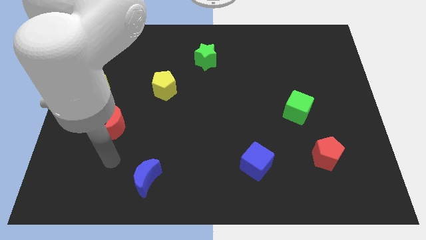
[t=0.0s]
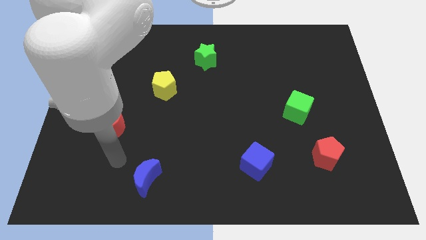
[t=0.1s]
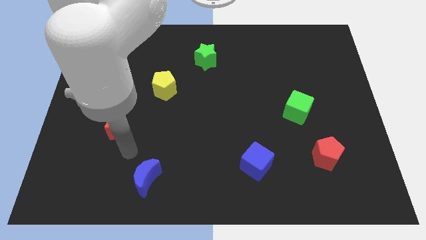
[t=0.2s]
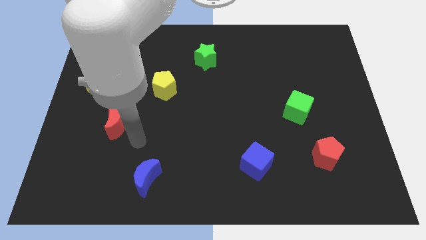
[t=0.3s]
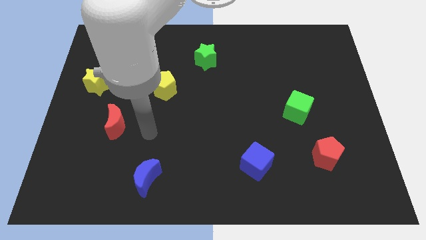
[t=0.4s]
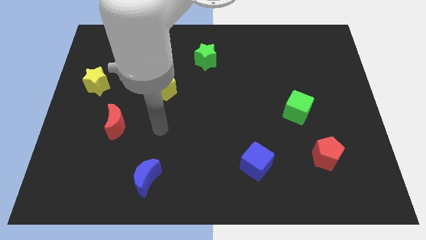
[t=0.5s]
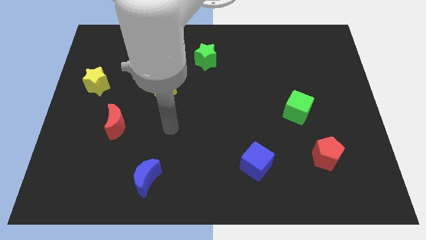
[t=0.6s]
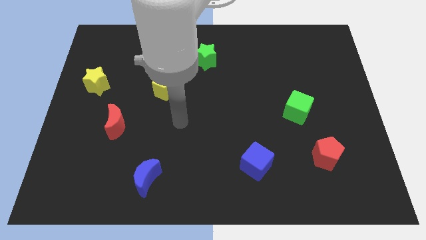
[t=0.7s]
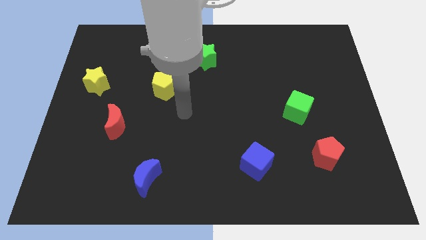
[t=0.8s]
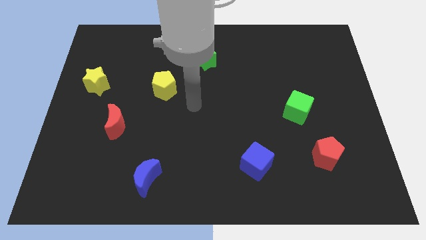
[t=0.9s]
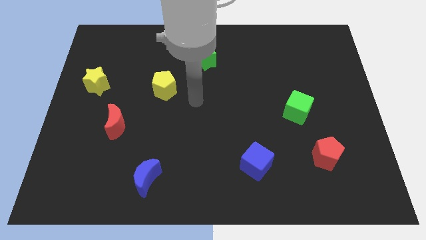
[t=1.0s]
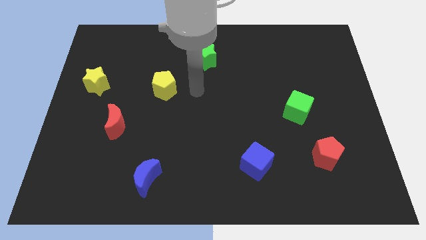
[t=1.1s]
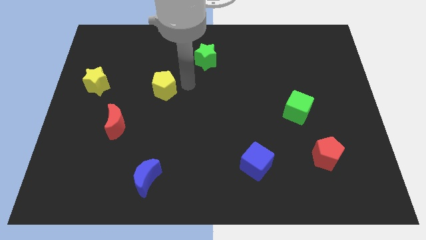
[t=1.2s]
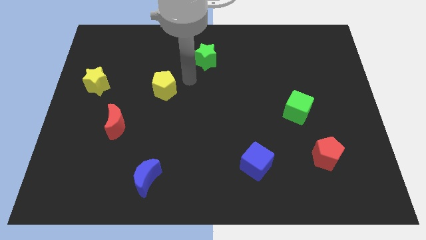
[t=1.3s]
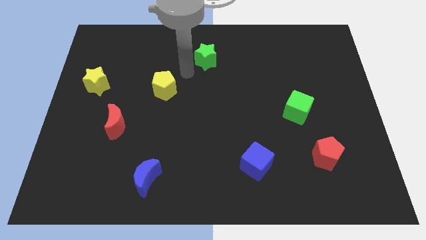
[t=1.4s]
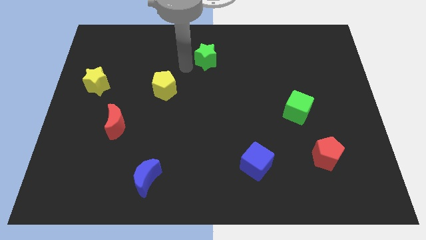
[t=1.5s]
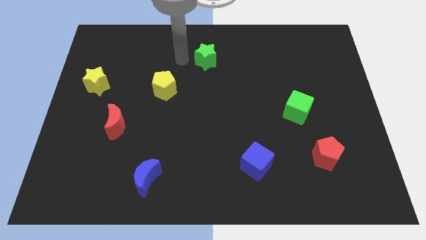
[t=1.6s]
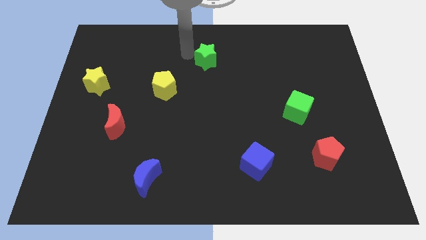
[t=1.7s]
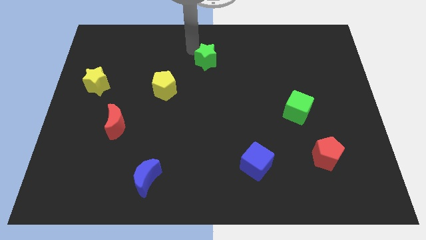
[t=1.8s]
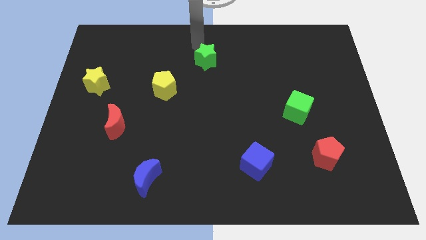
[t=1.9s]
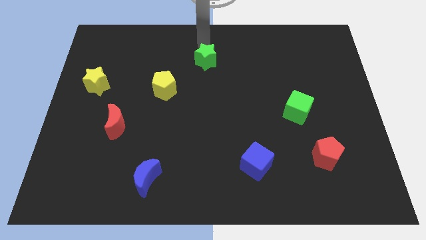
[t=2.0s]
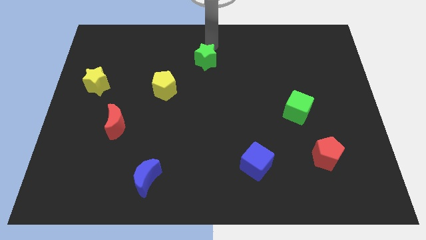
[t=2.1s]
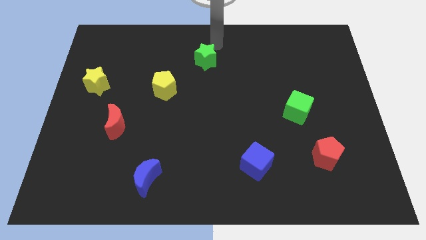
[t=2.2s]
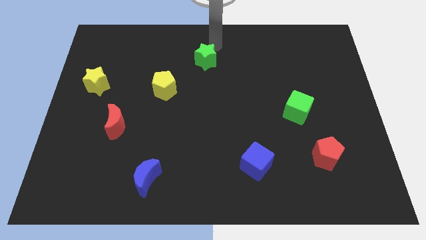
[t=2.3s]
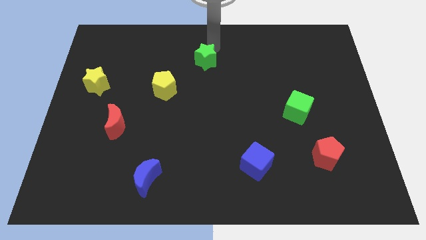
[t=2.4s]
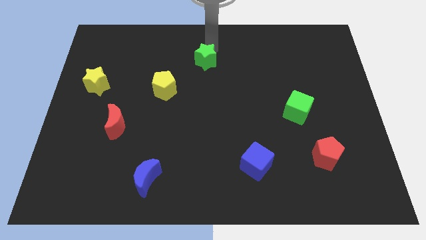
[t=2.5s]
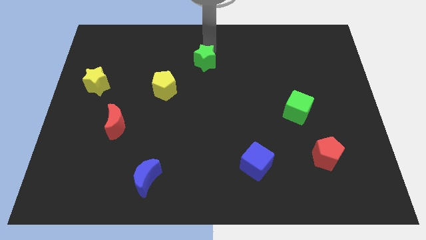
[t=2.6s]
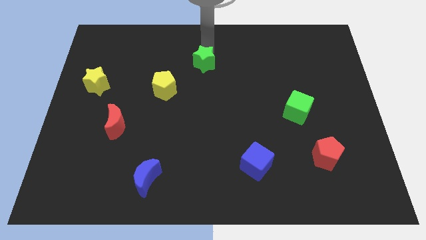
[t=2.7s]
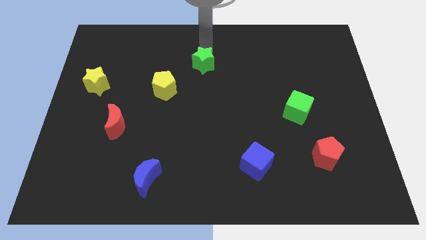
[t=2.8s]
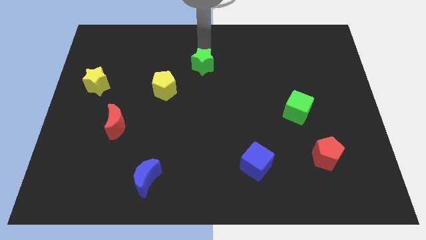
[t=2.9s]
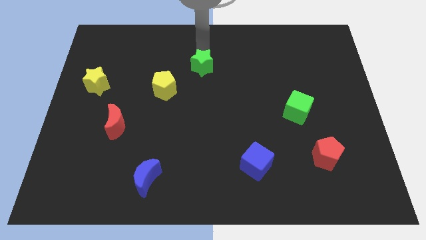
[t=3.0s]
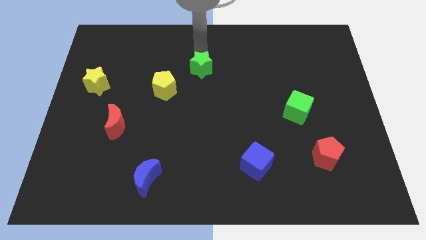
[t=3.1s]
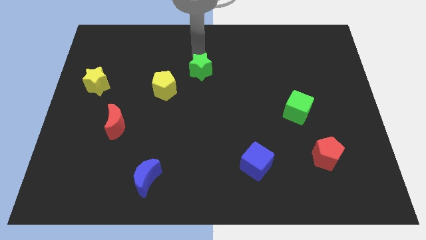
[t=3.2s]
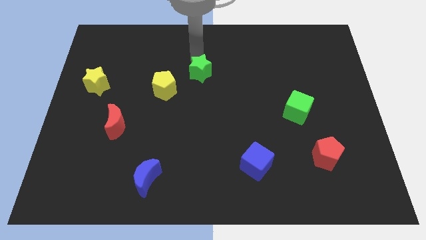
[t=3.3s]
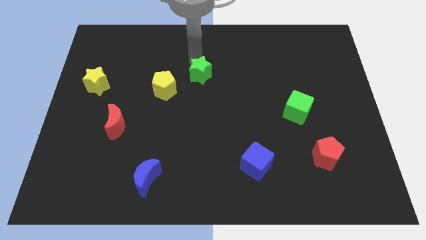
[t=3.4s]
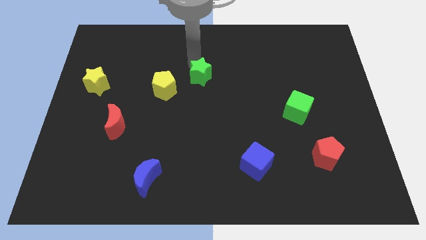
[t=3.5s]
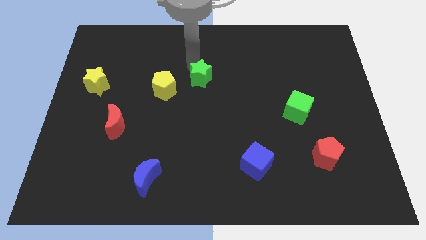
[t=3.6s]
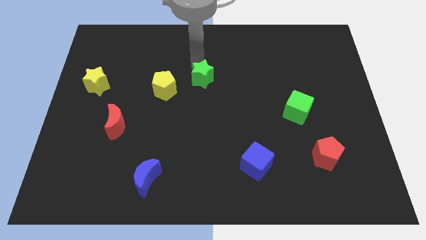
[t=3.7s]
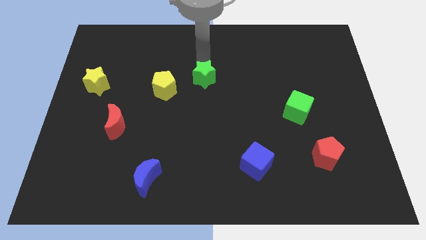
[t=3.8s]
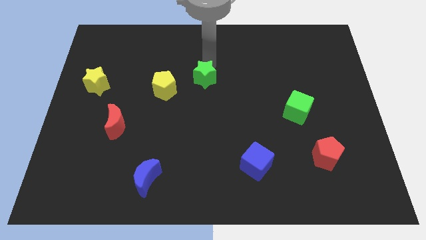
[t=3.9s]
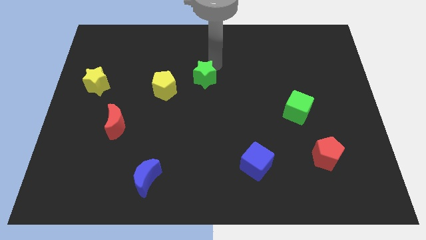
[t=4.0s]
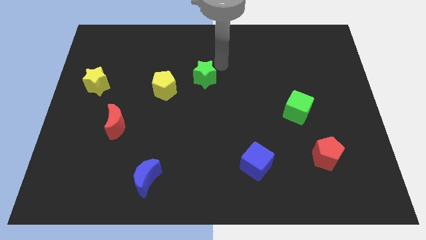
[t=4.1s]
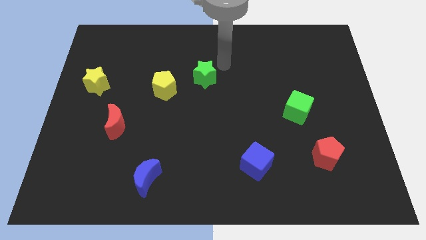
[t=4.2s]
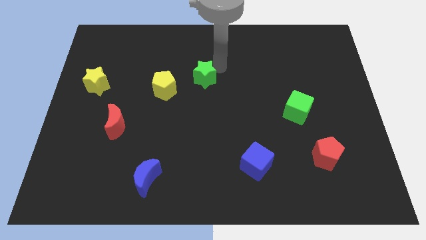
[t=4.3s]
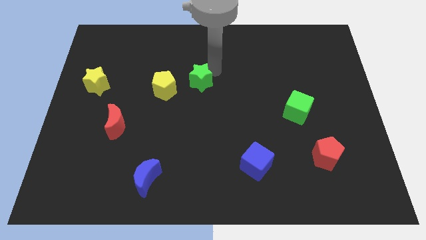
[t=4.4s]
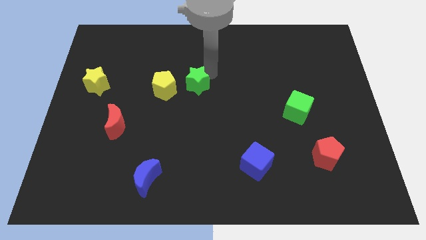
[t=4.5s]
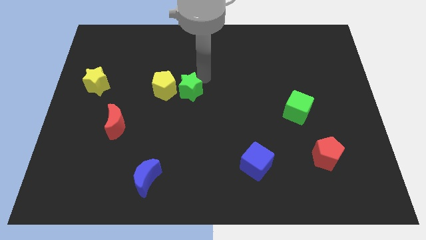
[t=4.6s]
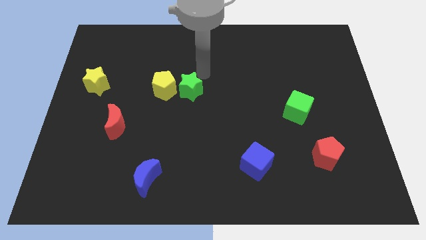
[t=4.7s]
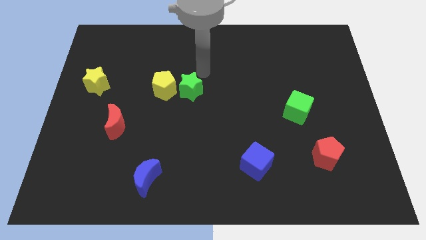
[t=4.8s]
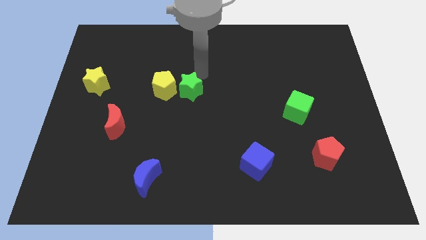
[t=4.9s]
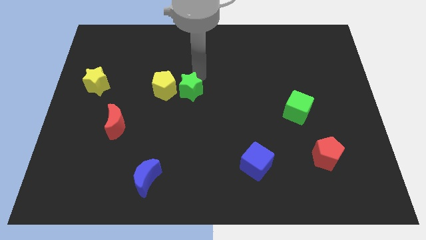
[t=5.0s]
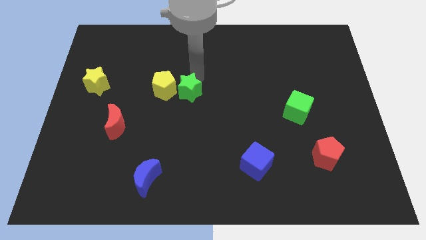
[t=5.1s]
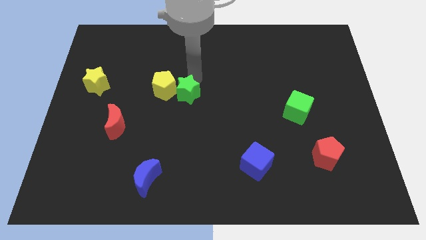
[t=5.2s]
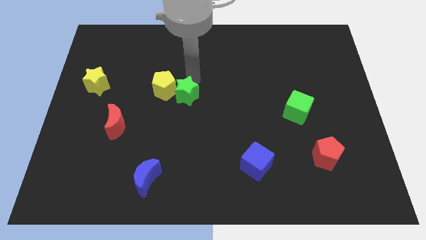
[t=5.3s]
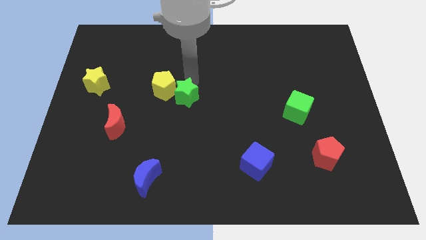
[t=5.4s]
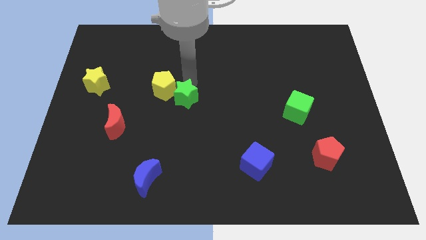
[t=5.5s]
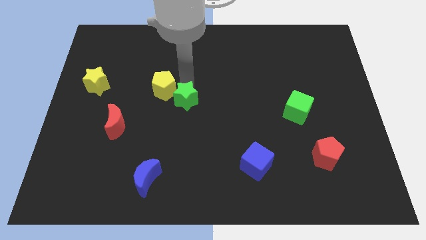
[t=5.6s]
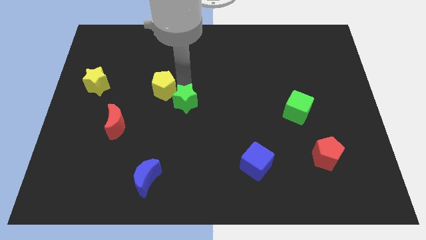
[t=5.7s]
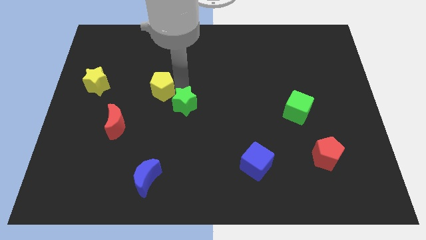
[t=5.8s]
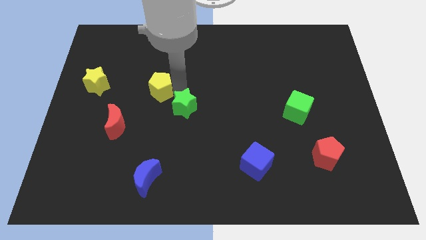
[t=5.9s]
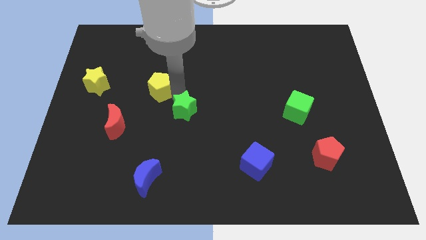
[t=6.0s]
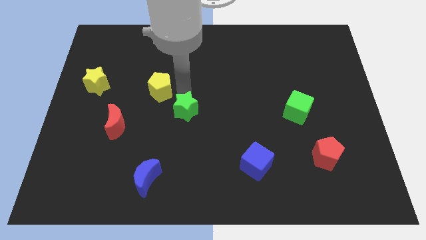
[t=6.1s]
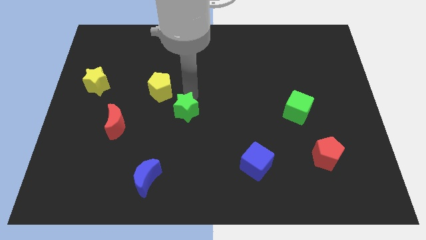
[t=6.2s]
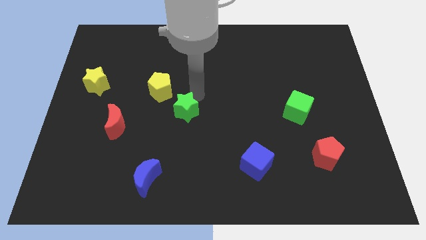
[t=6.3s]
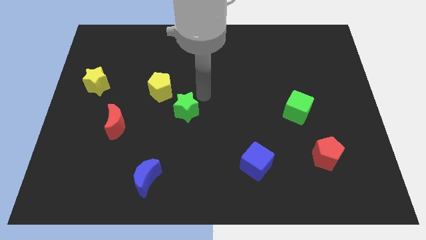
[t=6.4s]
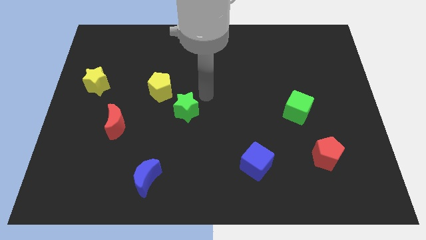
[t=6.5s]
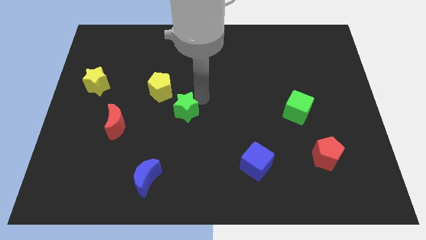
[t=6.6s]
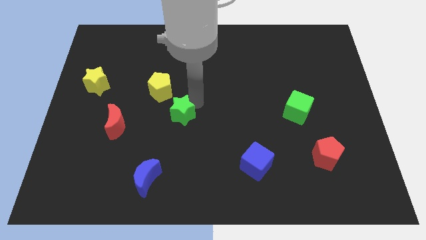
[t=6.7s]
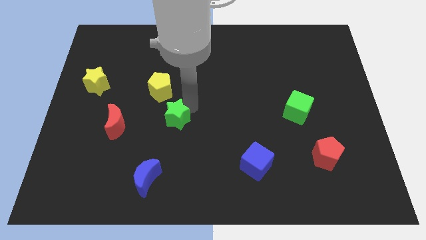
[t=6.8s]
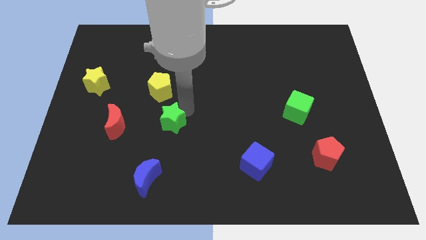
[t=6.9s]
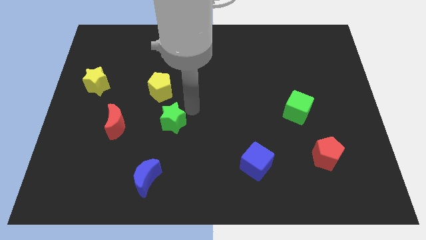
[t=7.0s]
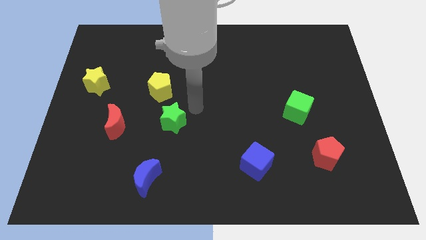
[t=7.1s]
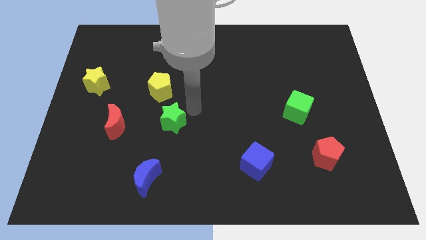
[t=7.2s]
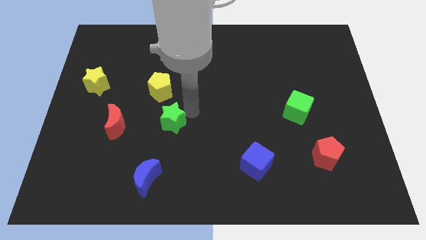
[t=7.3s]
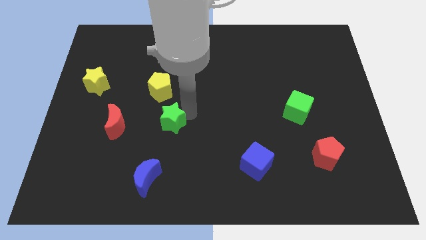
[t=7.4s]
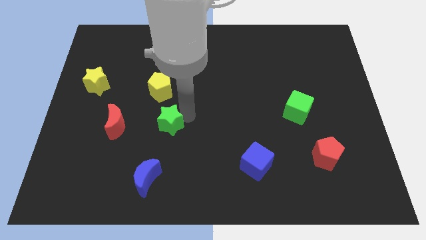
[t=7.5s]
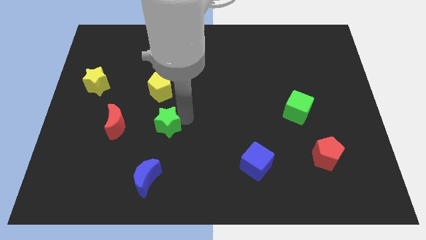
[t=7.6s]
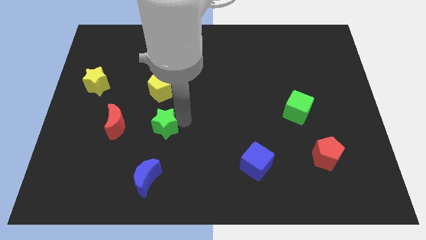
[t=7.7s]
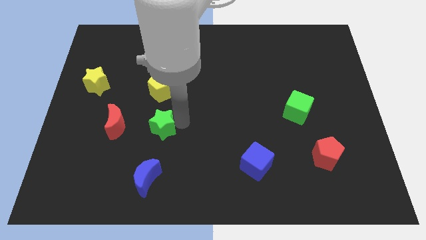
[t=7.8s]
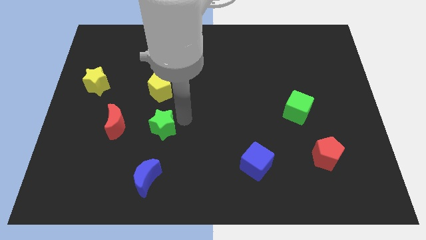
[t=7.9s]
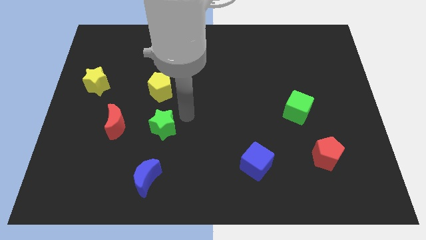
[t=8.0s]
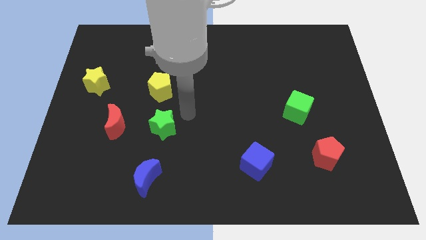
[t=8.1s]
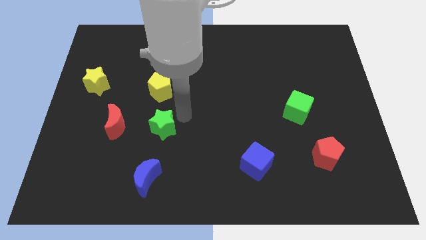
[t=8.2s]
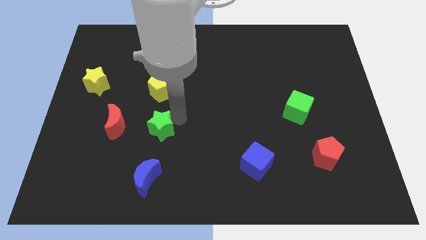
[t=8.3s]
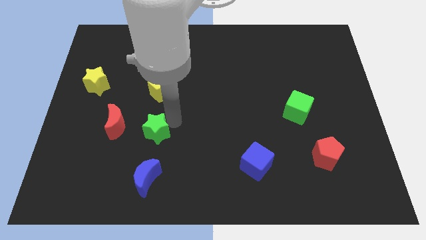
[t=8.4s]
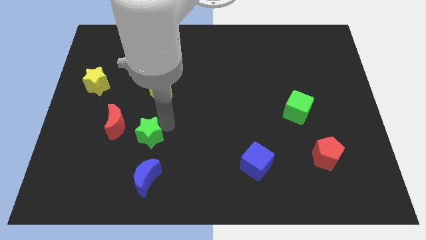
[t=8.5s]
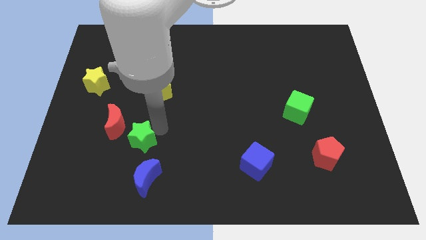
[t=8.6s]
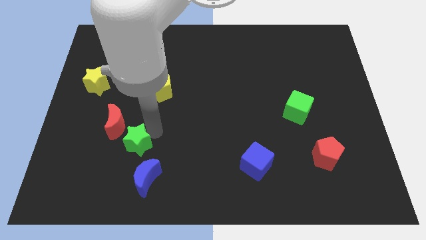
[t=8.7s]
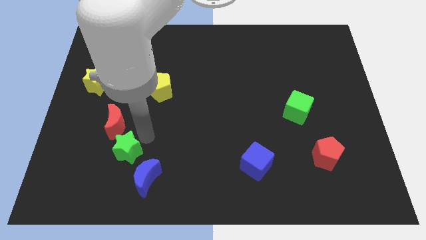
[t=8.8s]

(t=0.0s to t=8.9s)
put the green star to the bottom of the red moon
